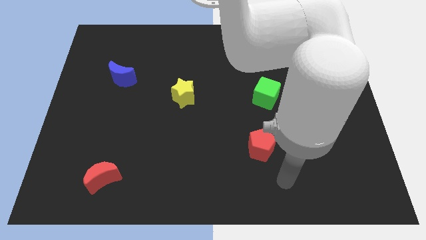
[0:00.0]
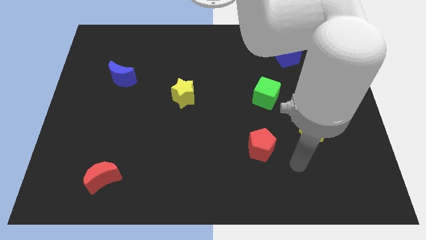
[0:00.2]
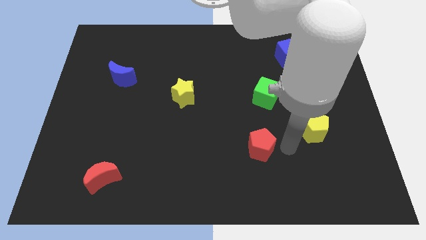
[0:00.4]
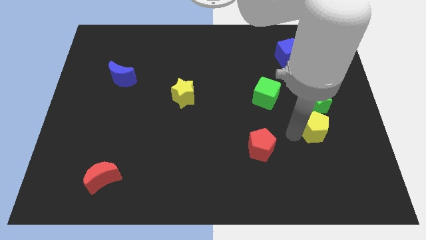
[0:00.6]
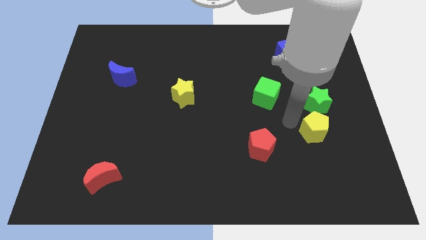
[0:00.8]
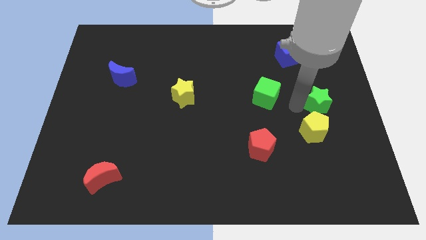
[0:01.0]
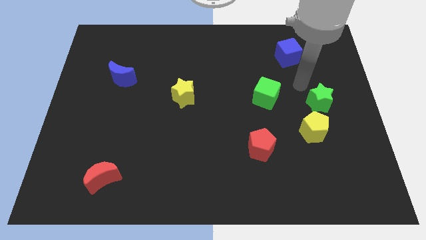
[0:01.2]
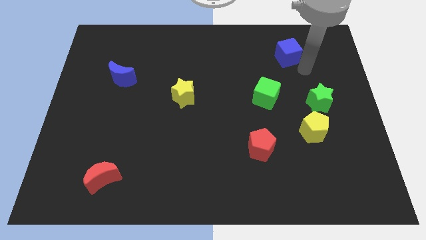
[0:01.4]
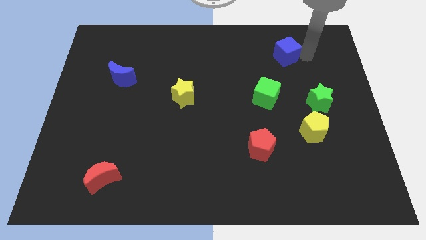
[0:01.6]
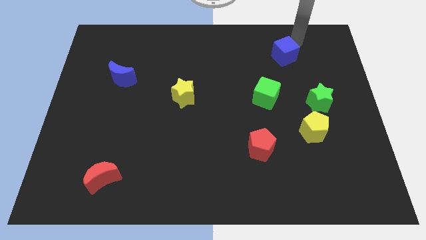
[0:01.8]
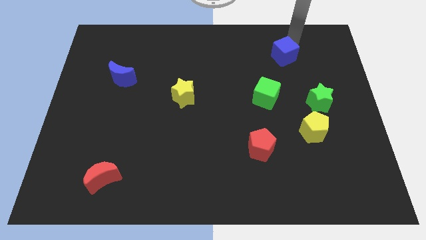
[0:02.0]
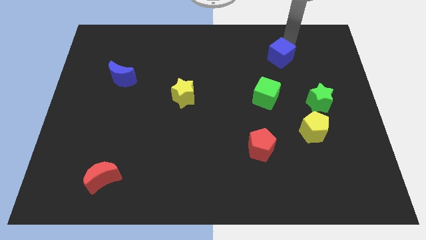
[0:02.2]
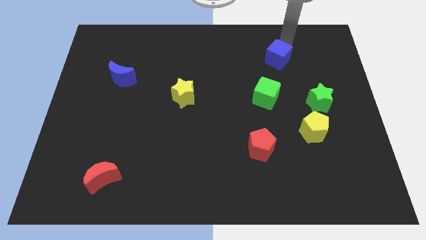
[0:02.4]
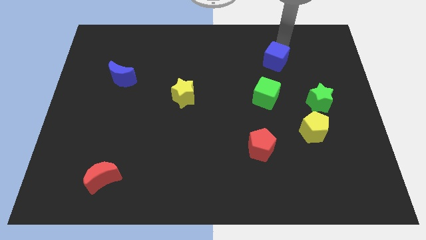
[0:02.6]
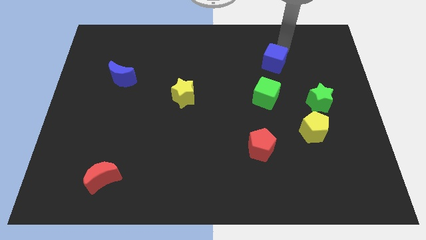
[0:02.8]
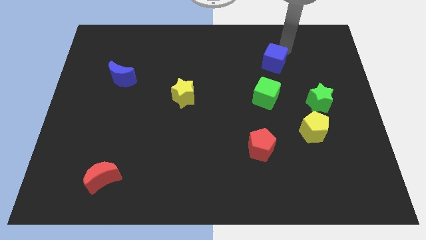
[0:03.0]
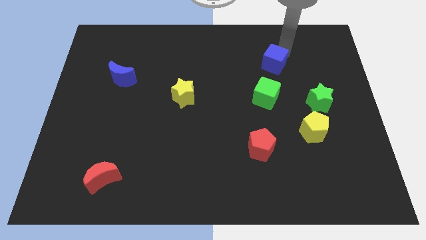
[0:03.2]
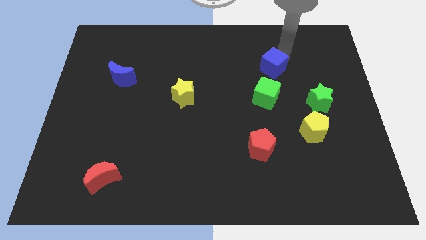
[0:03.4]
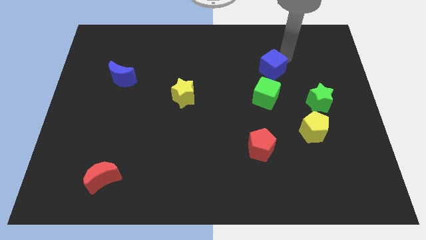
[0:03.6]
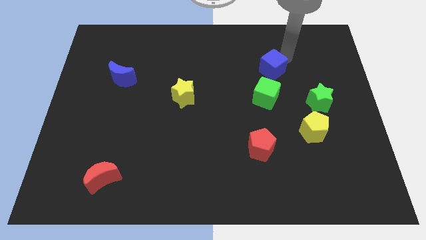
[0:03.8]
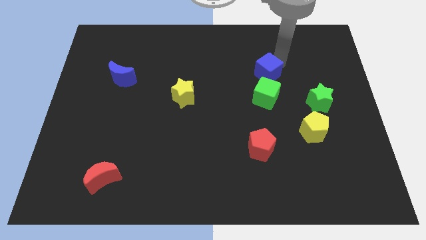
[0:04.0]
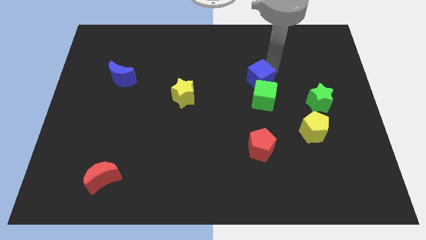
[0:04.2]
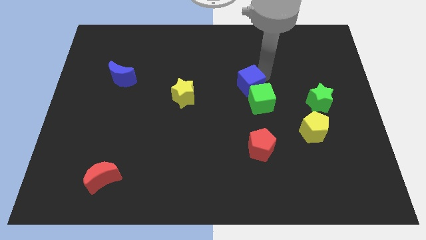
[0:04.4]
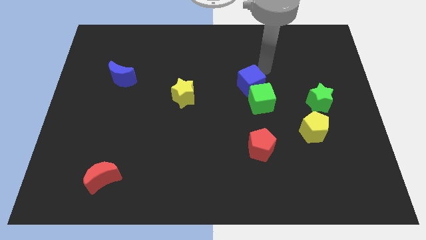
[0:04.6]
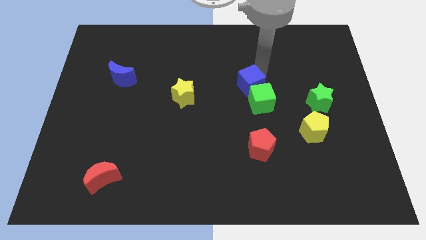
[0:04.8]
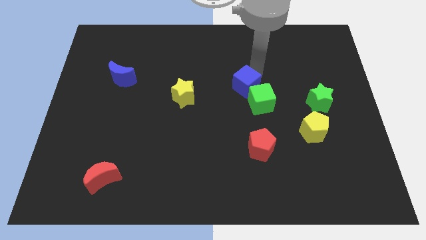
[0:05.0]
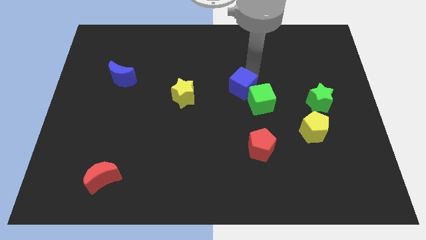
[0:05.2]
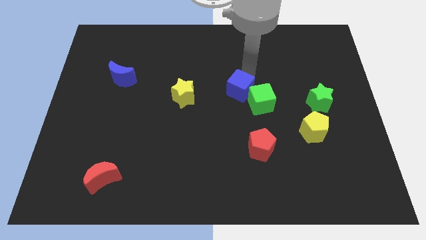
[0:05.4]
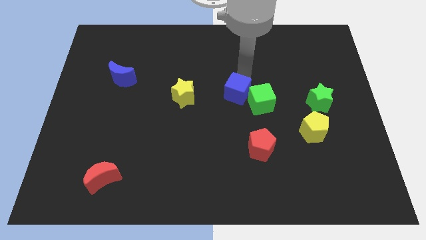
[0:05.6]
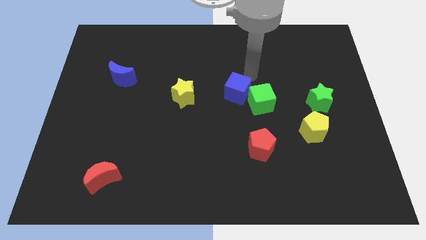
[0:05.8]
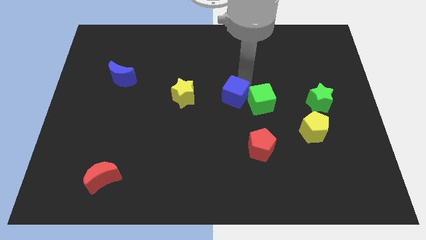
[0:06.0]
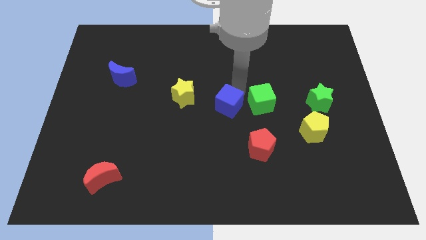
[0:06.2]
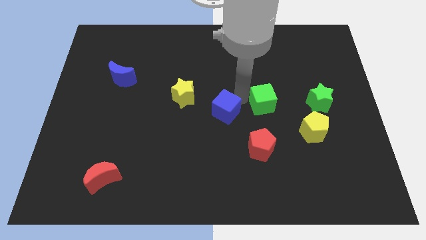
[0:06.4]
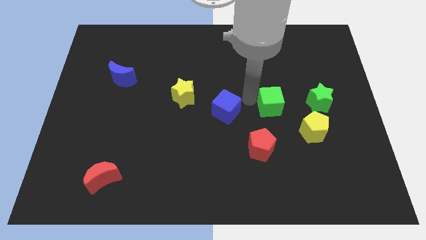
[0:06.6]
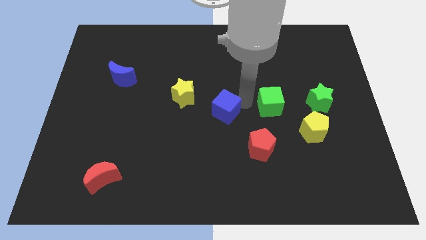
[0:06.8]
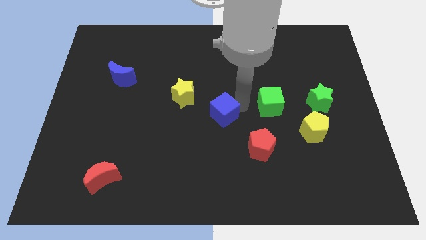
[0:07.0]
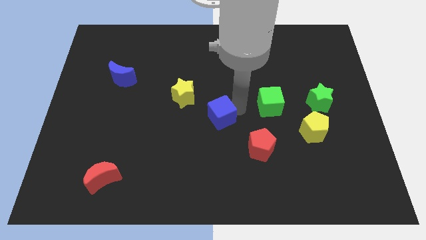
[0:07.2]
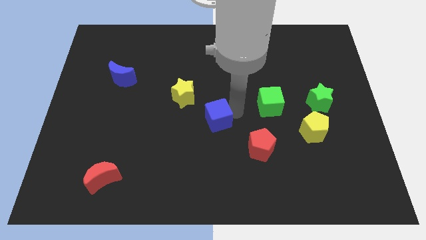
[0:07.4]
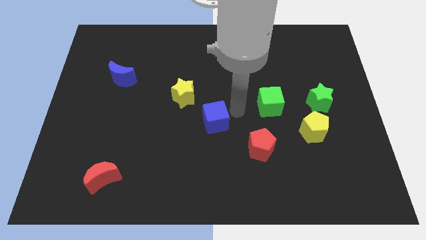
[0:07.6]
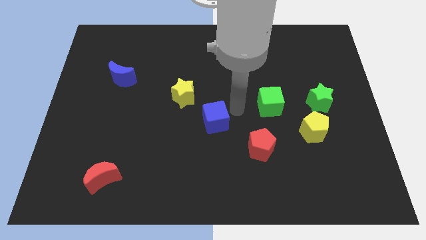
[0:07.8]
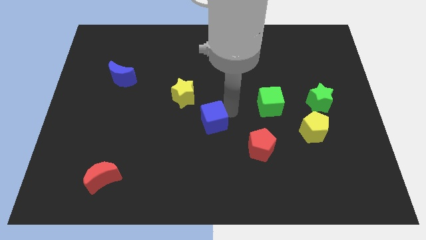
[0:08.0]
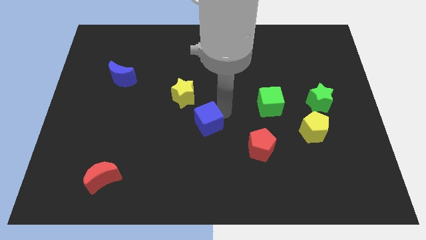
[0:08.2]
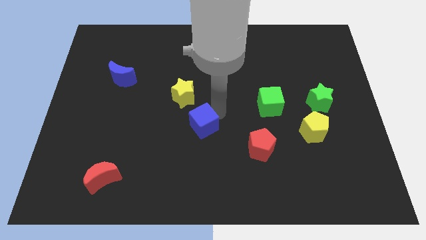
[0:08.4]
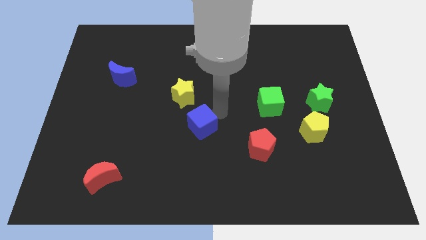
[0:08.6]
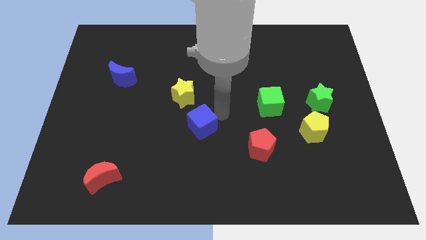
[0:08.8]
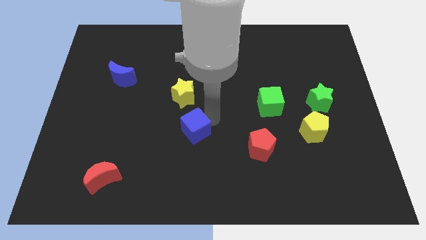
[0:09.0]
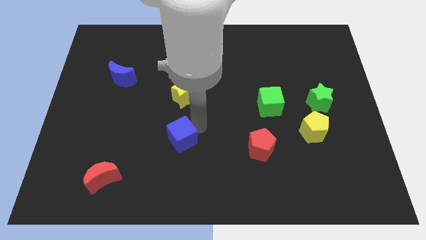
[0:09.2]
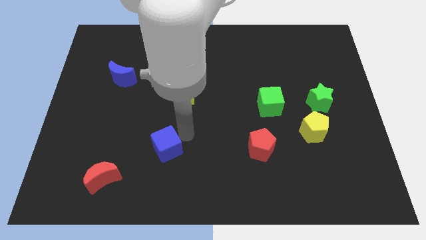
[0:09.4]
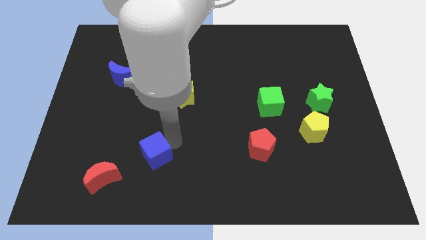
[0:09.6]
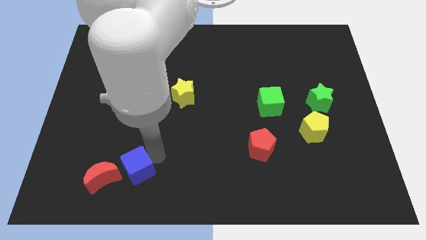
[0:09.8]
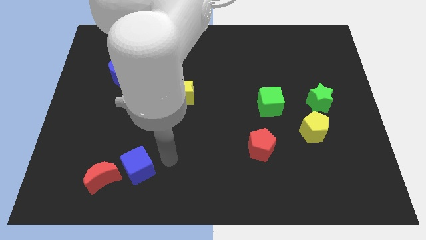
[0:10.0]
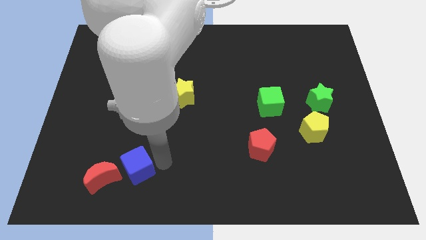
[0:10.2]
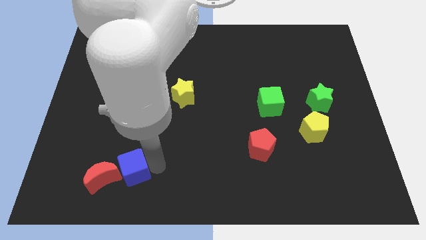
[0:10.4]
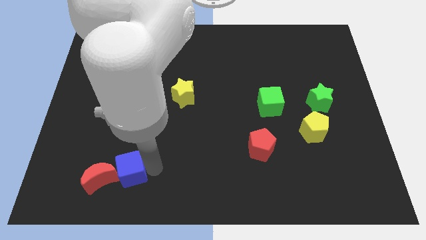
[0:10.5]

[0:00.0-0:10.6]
put the blue cube close to the red moon

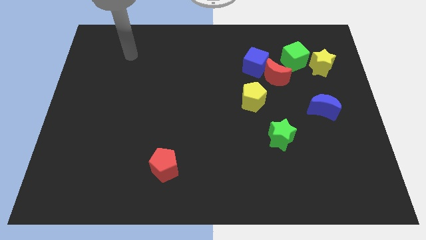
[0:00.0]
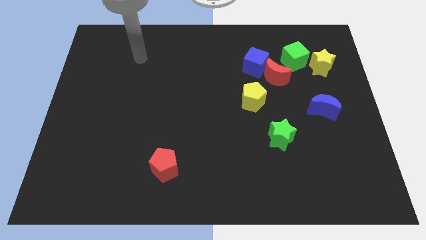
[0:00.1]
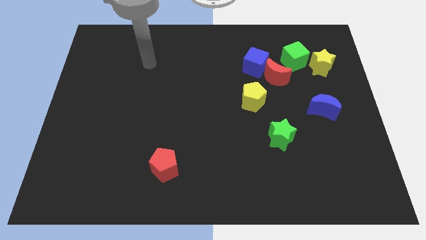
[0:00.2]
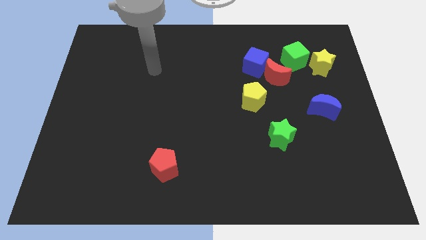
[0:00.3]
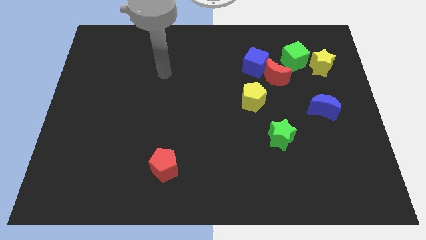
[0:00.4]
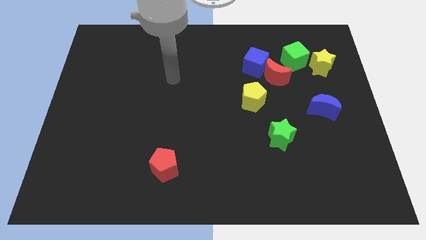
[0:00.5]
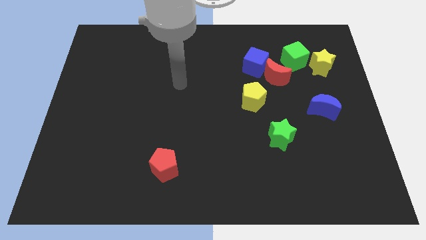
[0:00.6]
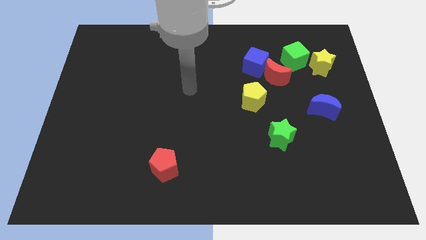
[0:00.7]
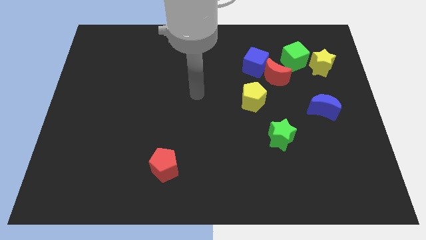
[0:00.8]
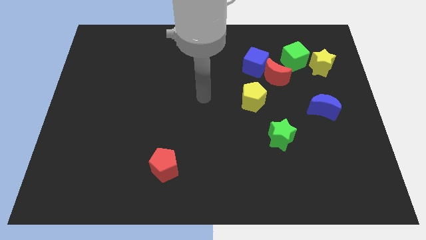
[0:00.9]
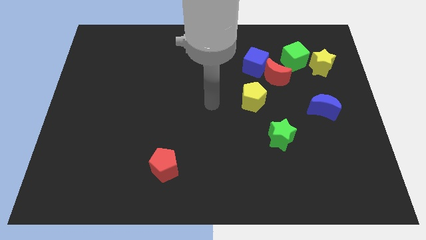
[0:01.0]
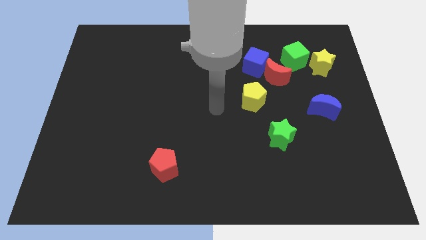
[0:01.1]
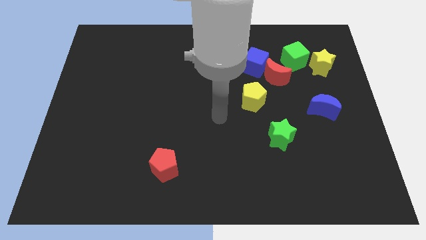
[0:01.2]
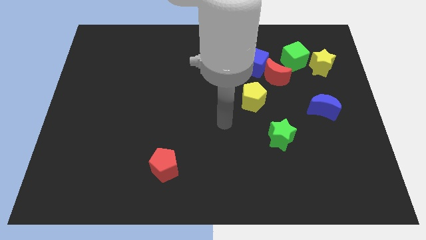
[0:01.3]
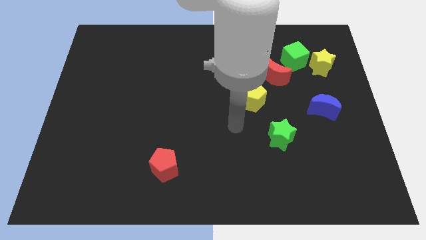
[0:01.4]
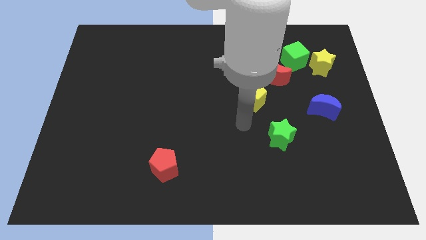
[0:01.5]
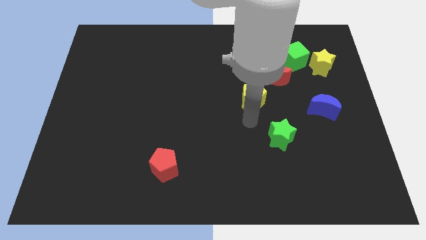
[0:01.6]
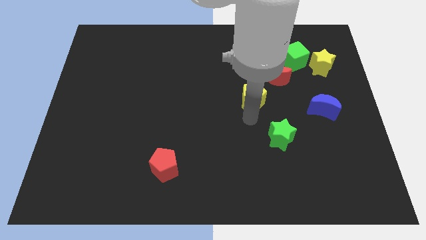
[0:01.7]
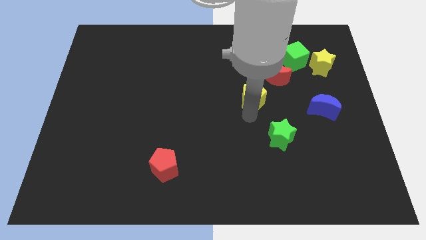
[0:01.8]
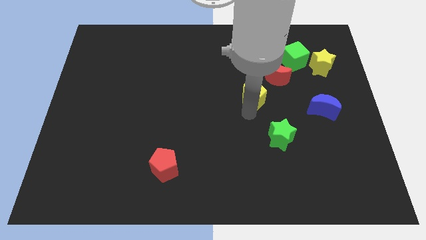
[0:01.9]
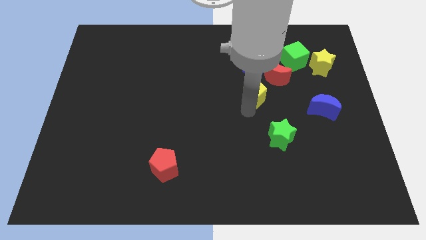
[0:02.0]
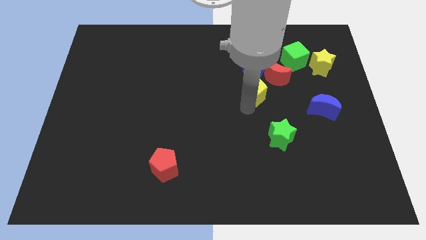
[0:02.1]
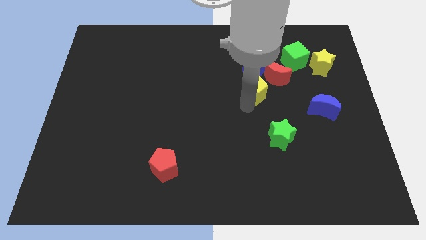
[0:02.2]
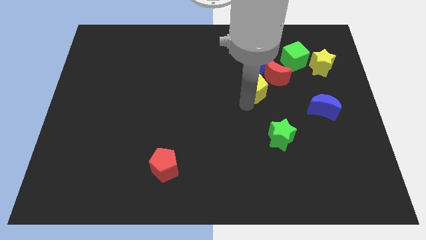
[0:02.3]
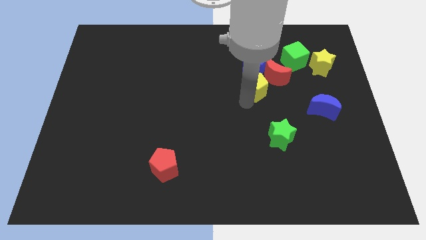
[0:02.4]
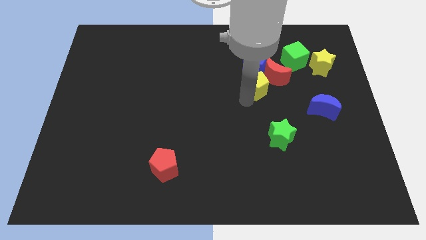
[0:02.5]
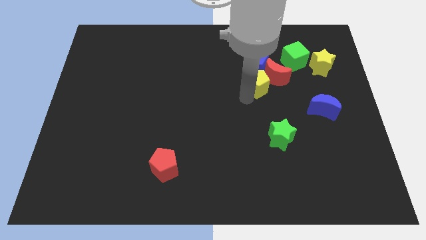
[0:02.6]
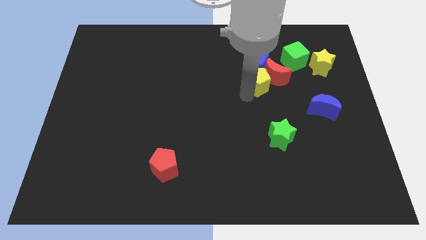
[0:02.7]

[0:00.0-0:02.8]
slide the yellow pentagon towards the blue cube
